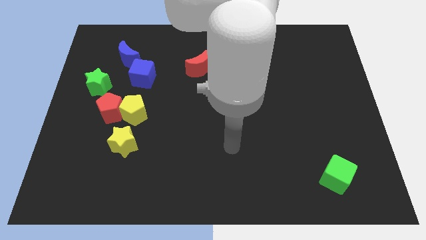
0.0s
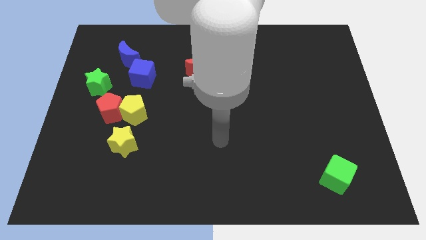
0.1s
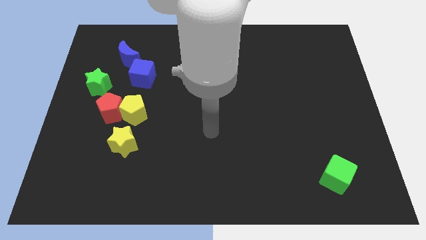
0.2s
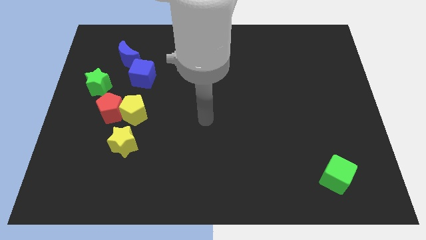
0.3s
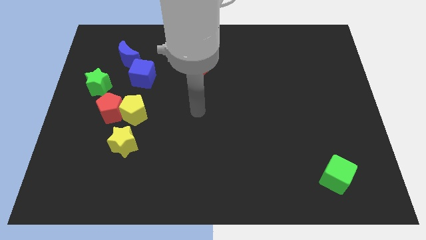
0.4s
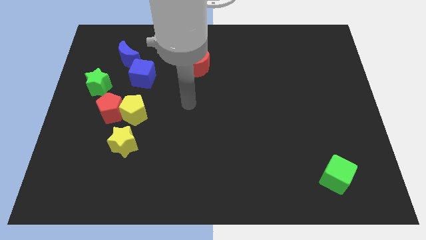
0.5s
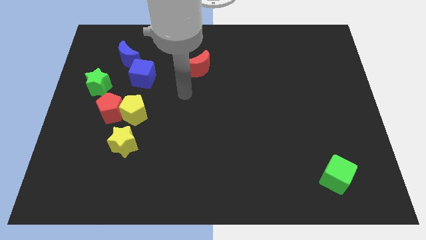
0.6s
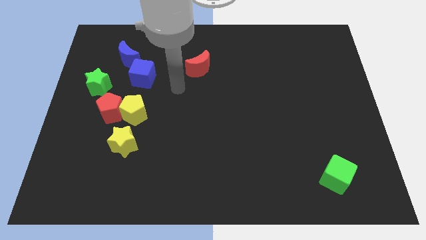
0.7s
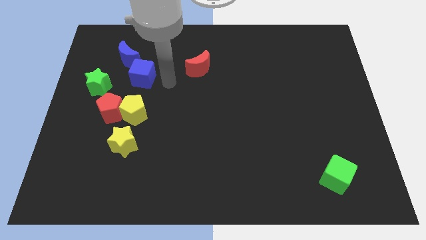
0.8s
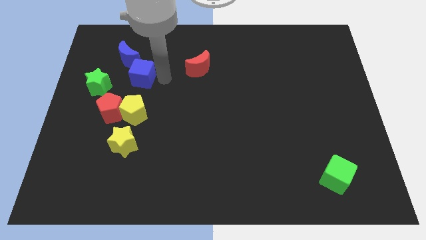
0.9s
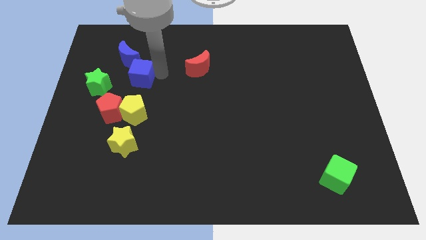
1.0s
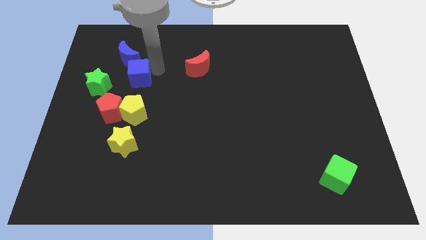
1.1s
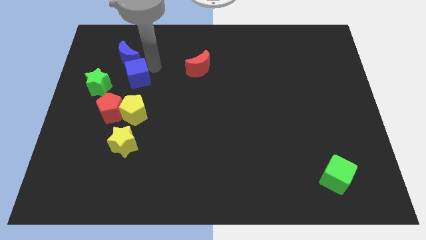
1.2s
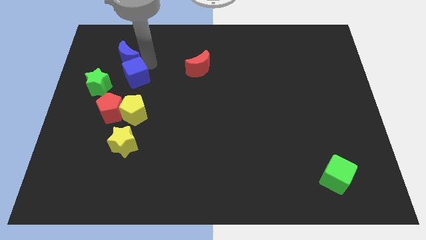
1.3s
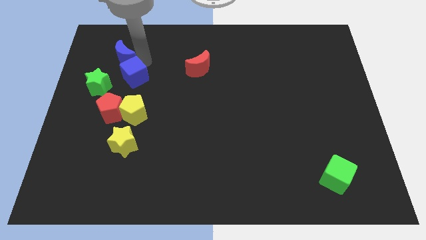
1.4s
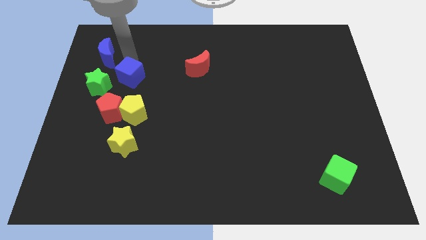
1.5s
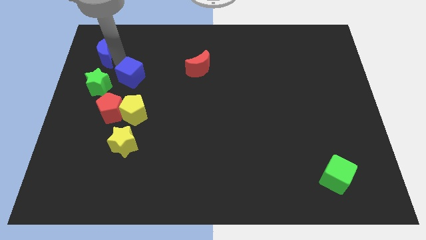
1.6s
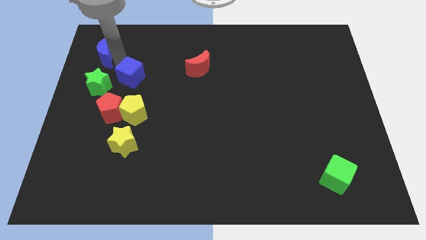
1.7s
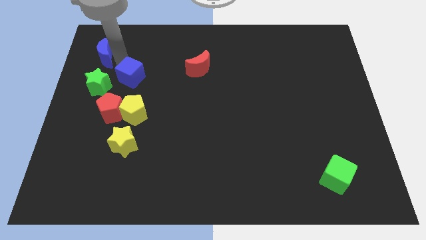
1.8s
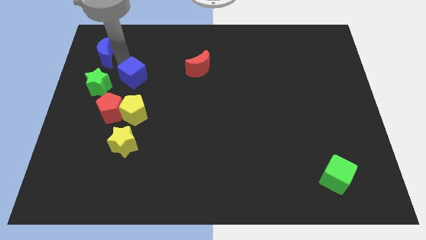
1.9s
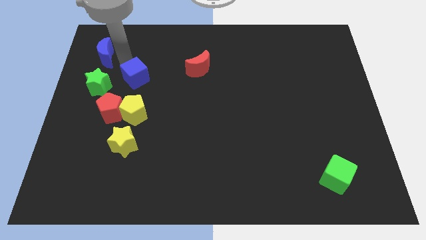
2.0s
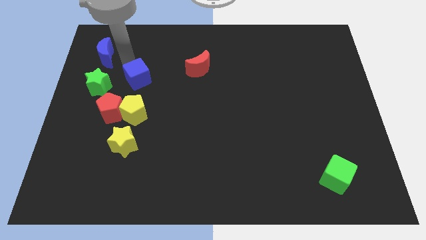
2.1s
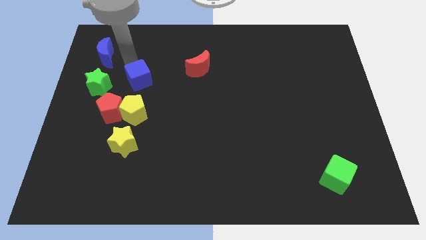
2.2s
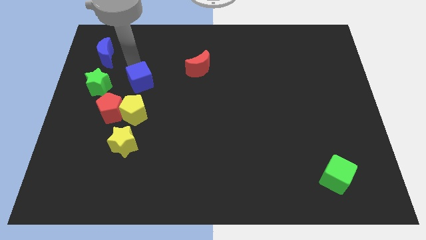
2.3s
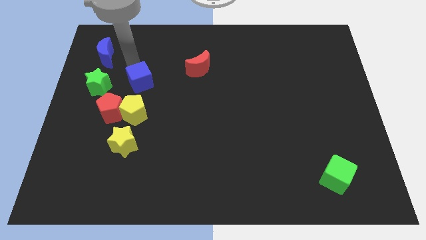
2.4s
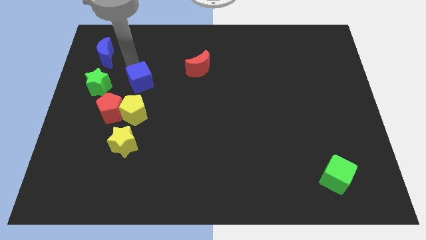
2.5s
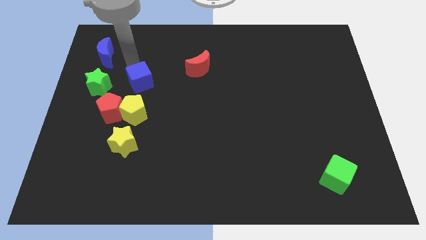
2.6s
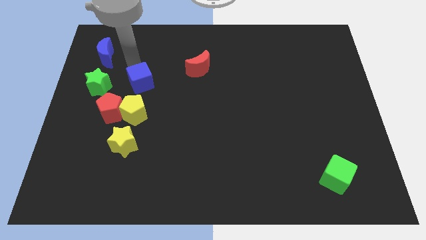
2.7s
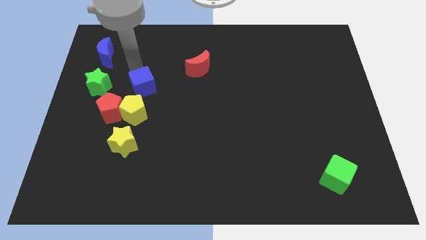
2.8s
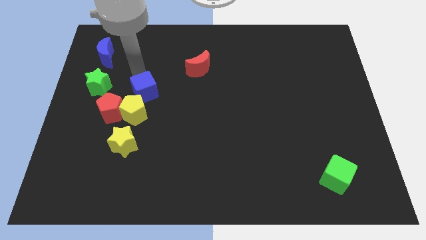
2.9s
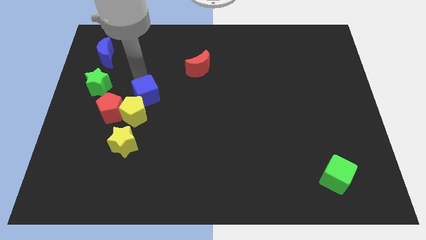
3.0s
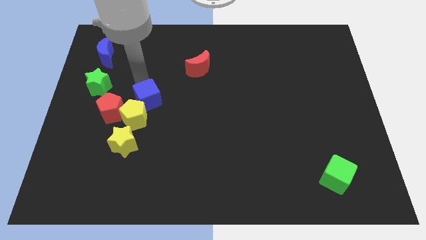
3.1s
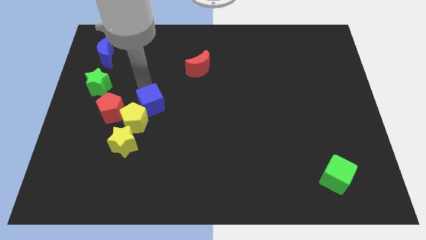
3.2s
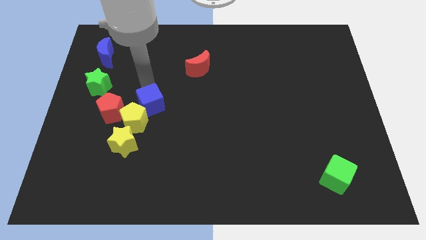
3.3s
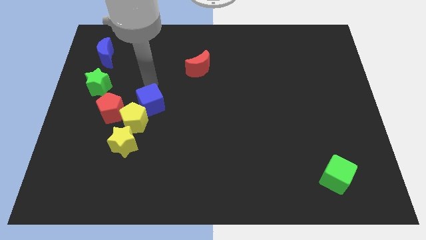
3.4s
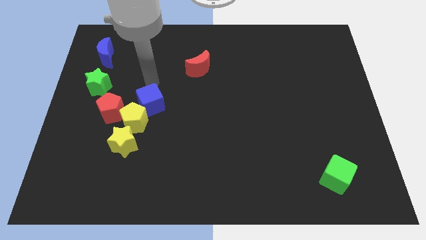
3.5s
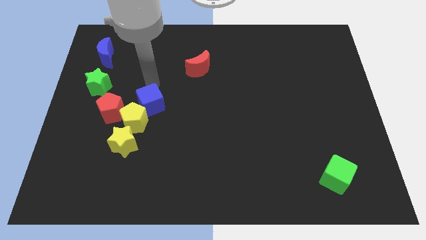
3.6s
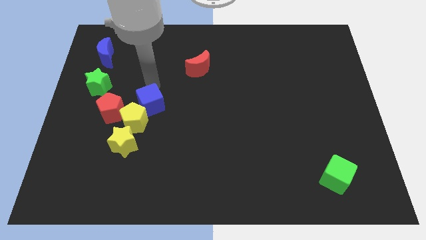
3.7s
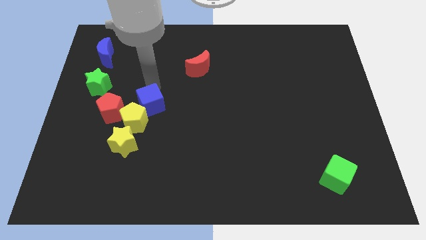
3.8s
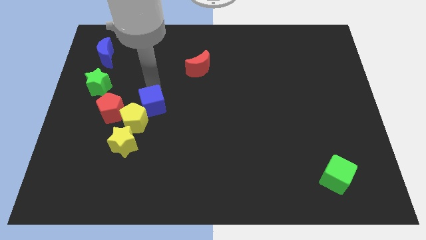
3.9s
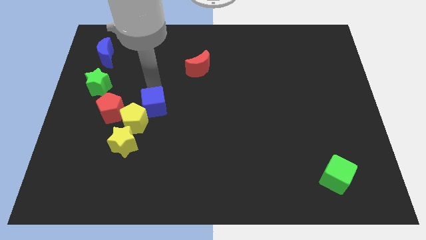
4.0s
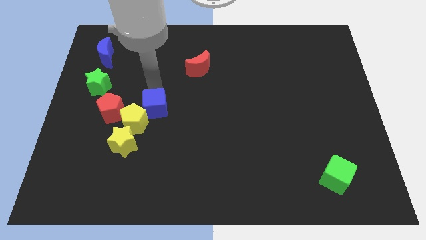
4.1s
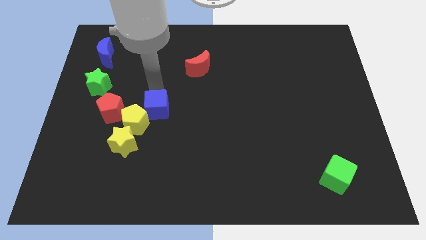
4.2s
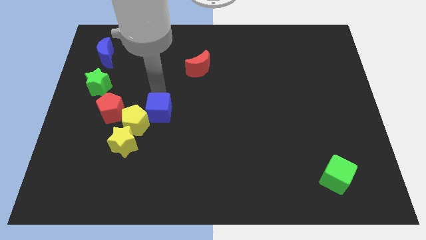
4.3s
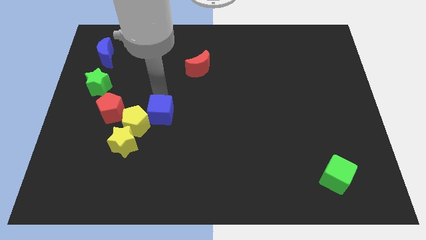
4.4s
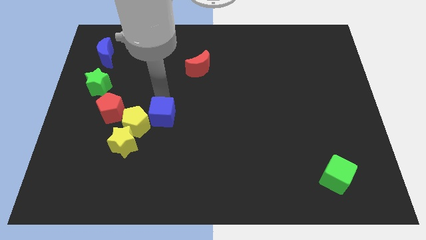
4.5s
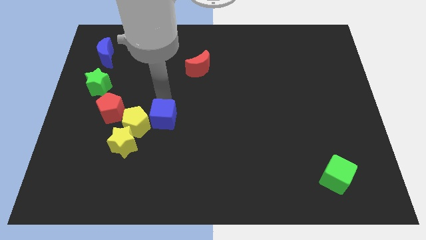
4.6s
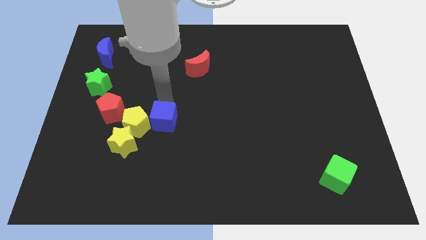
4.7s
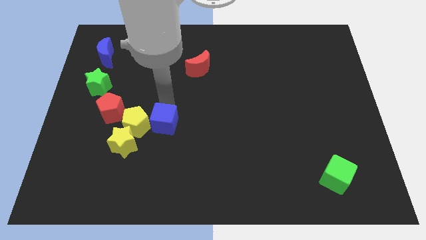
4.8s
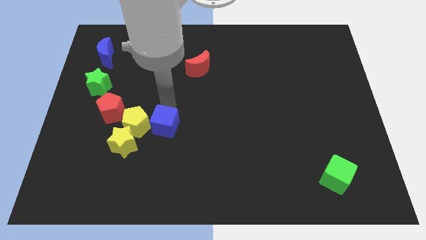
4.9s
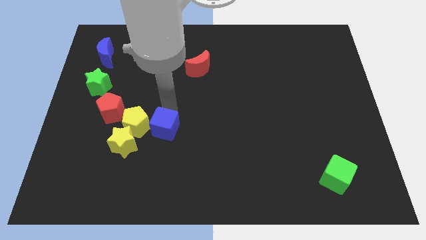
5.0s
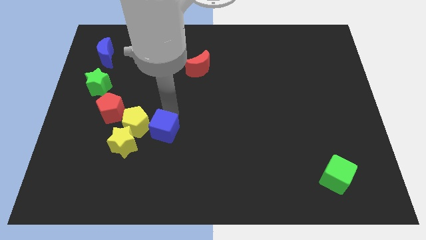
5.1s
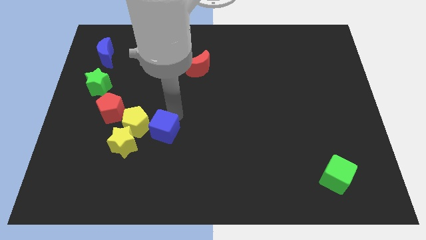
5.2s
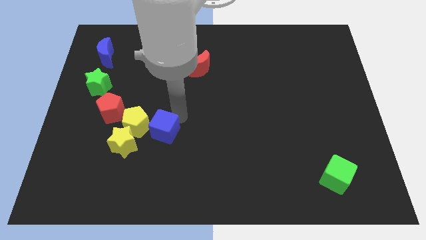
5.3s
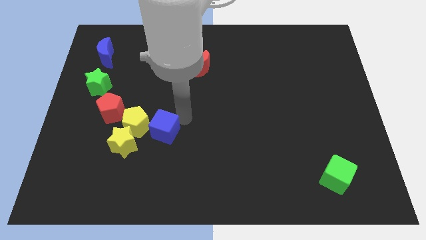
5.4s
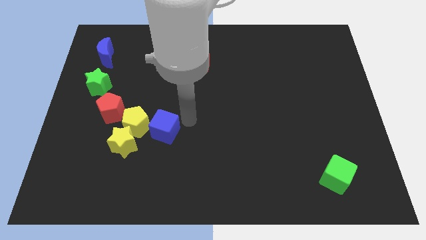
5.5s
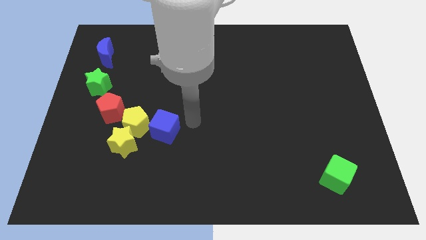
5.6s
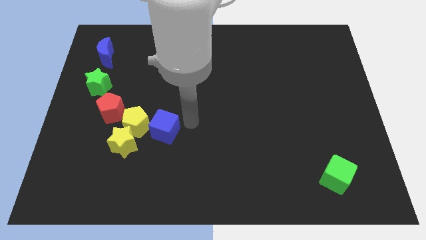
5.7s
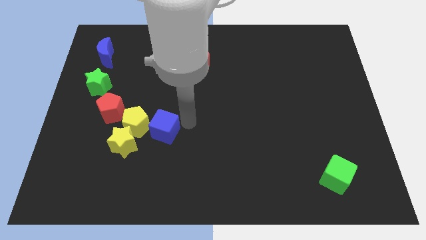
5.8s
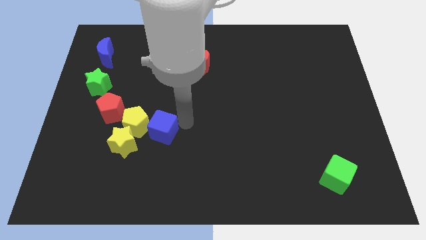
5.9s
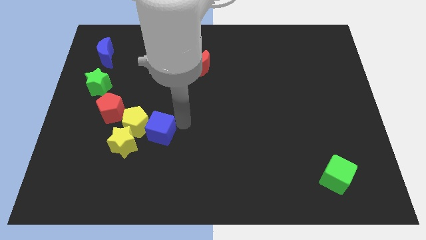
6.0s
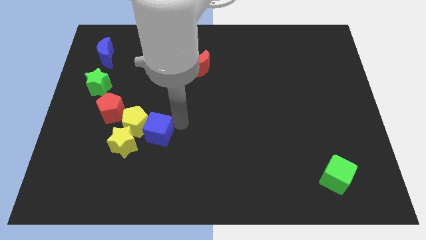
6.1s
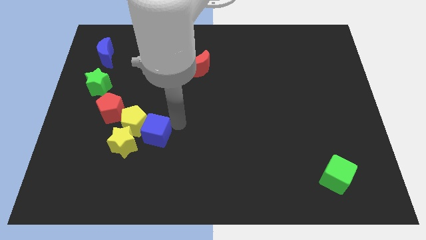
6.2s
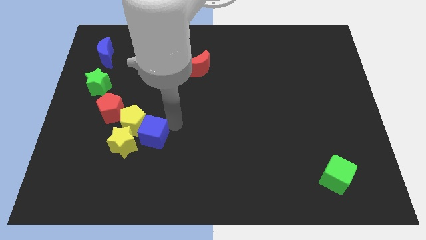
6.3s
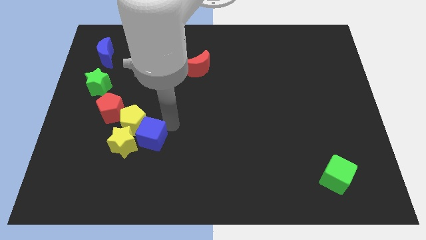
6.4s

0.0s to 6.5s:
slide the blue cube next to the yellow star

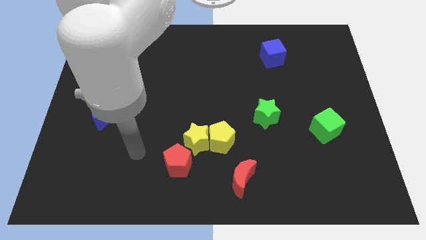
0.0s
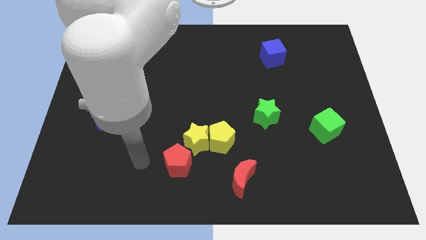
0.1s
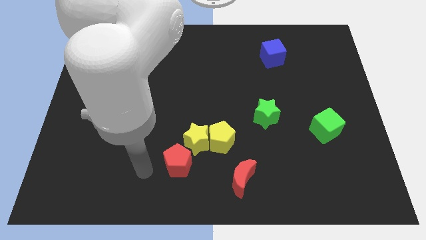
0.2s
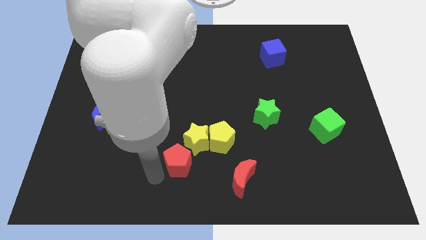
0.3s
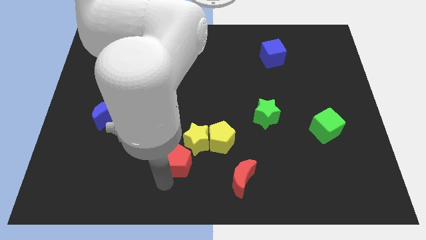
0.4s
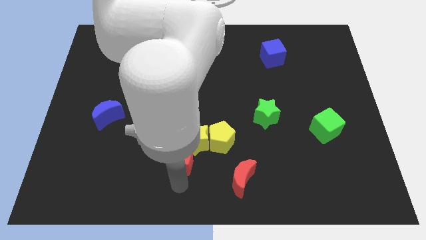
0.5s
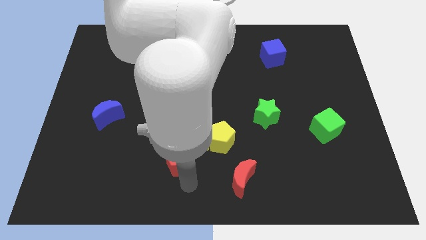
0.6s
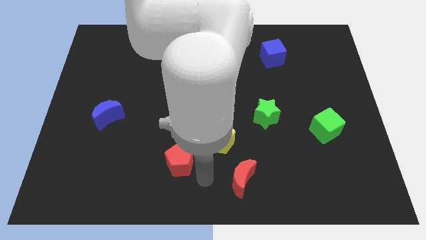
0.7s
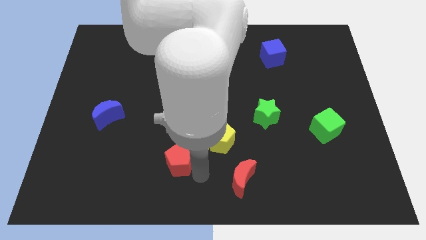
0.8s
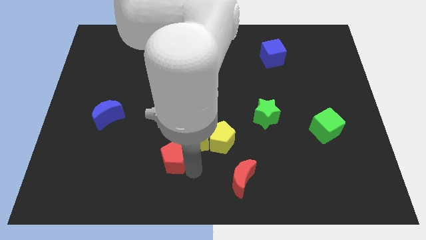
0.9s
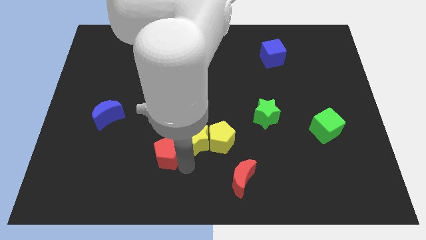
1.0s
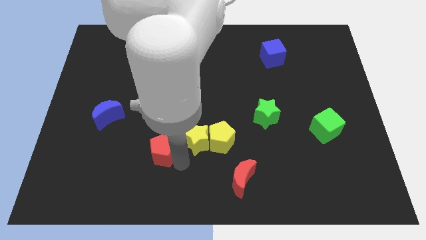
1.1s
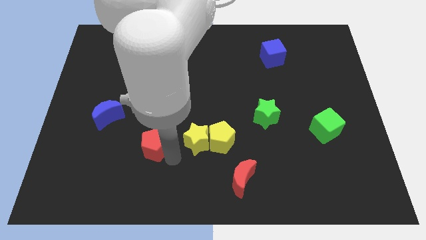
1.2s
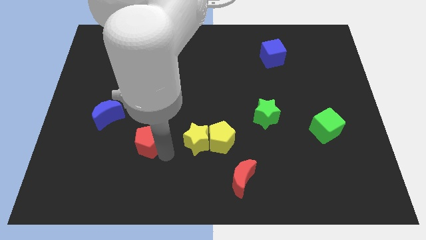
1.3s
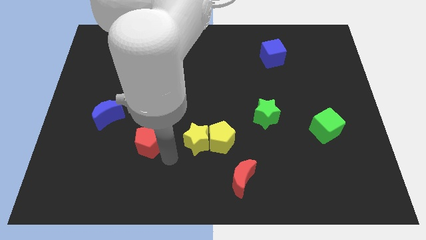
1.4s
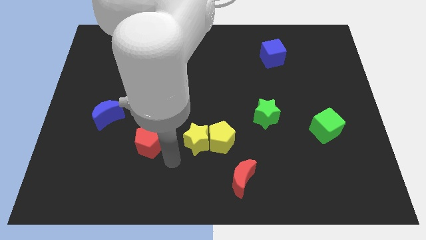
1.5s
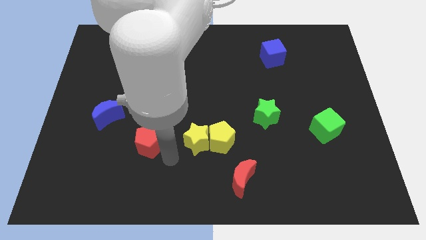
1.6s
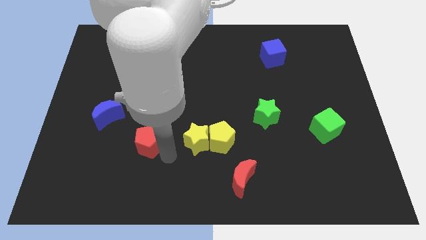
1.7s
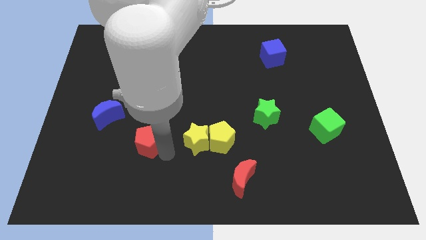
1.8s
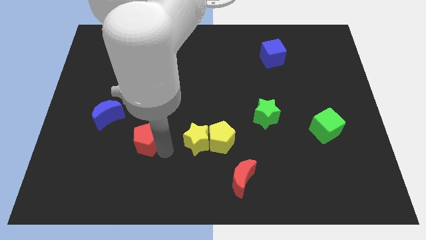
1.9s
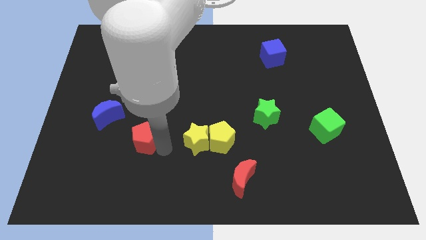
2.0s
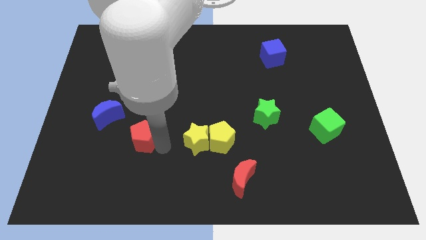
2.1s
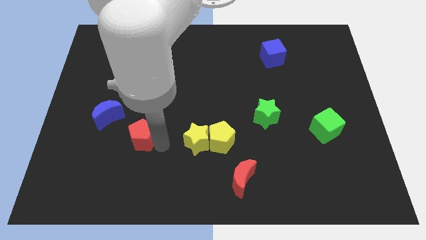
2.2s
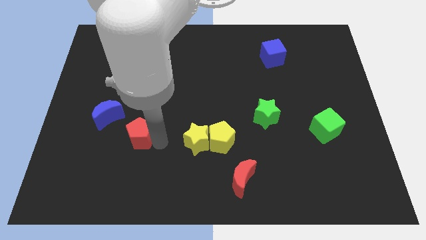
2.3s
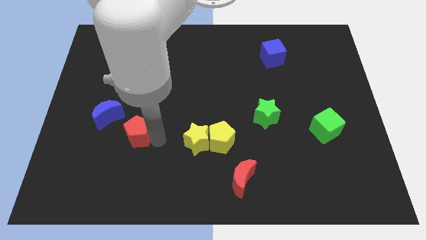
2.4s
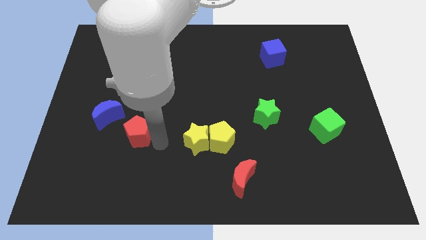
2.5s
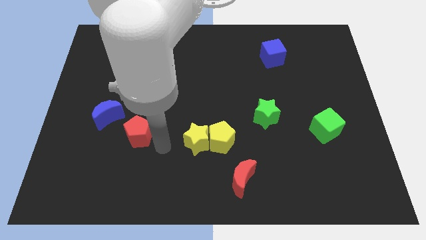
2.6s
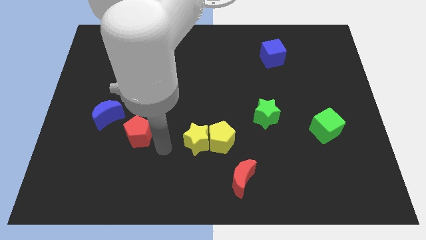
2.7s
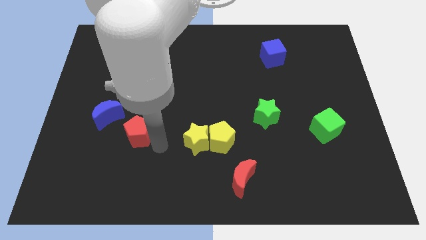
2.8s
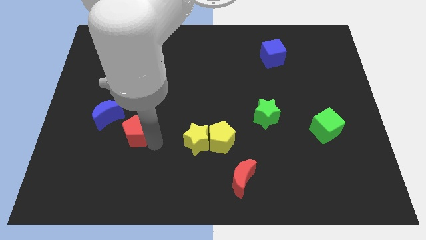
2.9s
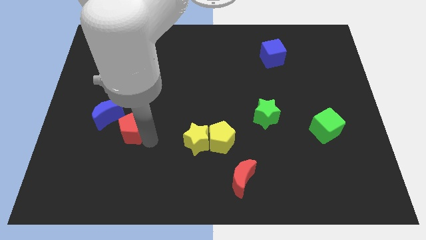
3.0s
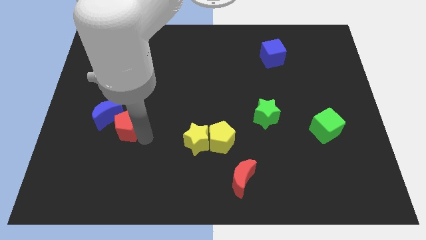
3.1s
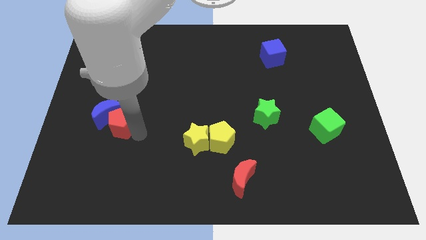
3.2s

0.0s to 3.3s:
move the red pentagon close to the blue moon
